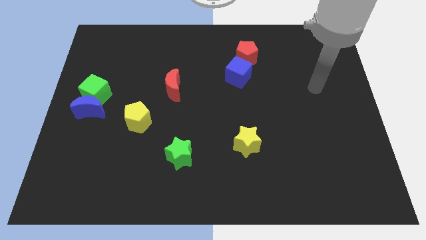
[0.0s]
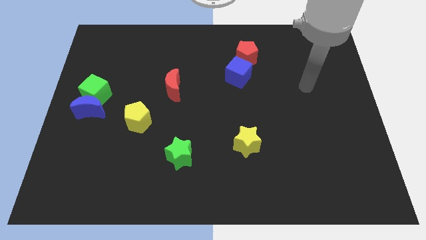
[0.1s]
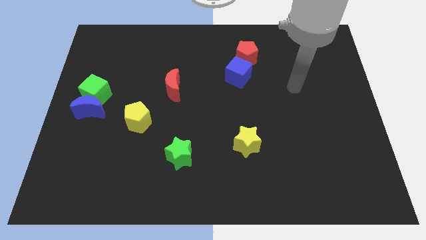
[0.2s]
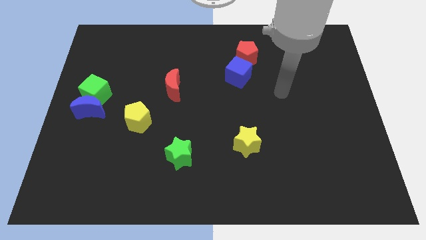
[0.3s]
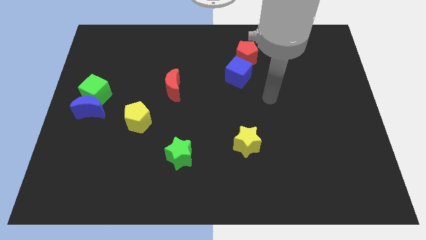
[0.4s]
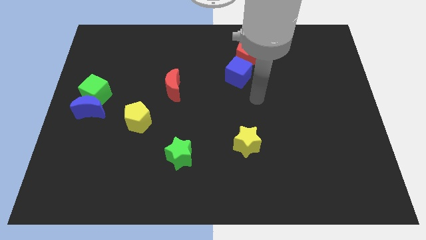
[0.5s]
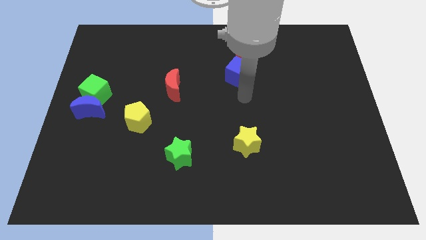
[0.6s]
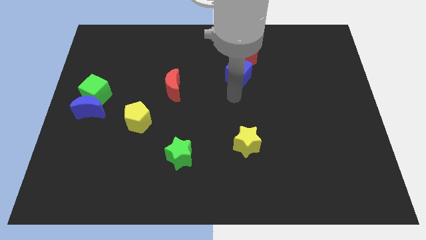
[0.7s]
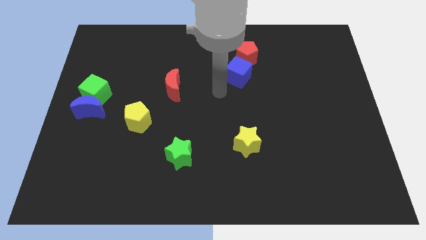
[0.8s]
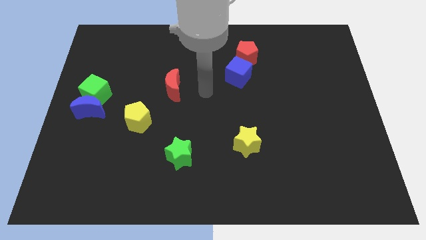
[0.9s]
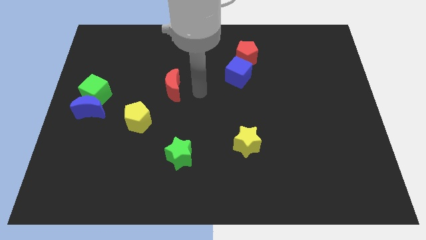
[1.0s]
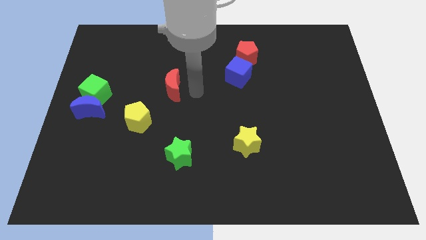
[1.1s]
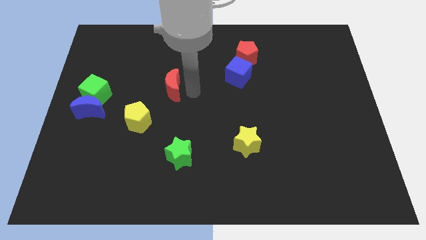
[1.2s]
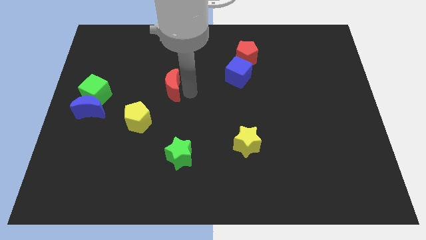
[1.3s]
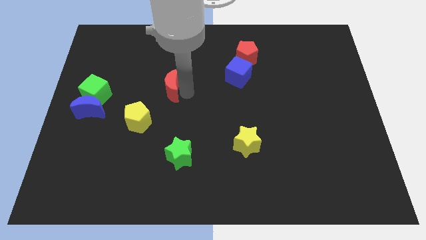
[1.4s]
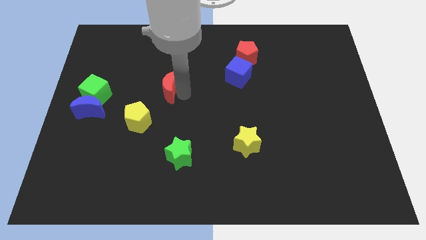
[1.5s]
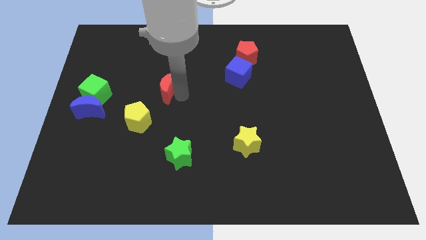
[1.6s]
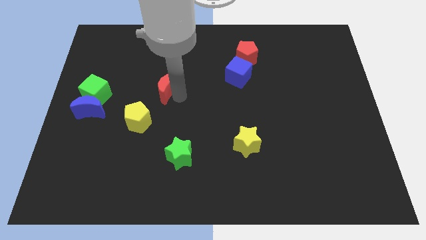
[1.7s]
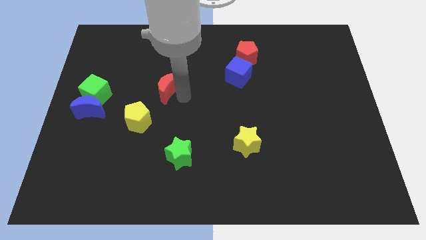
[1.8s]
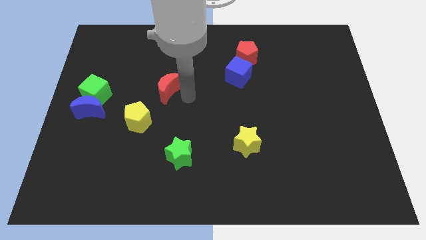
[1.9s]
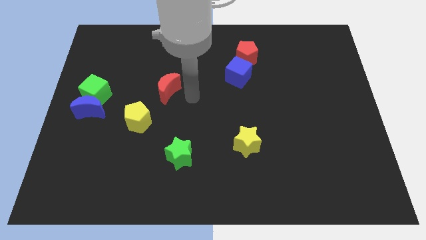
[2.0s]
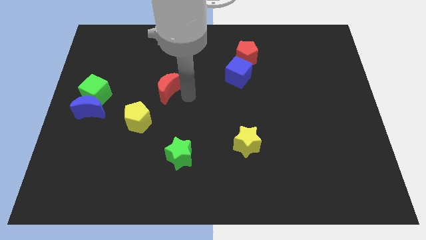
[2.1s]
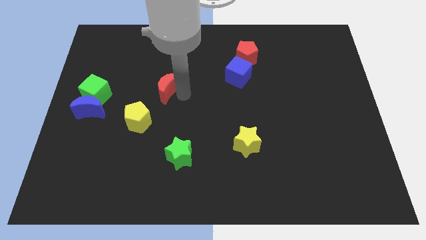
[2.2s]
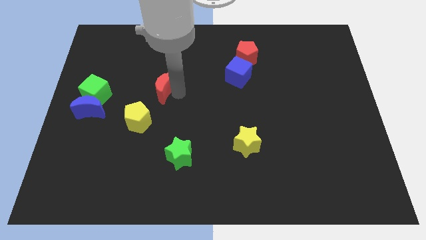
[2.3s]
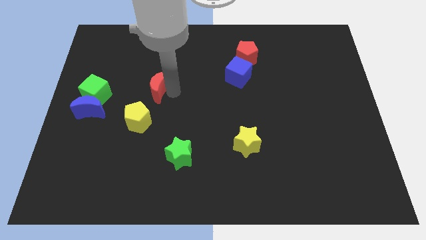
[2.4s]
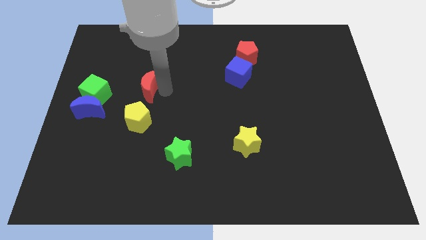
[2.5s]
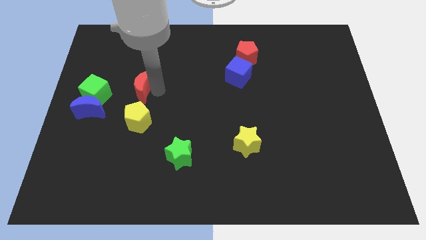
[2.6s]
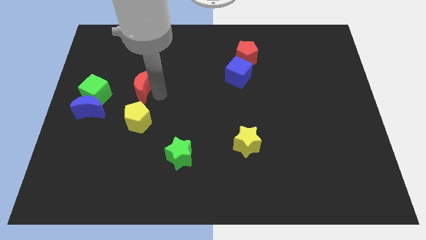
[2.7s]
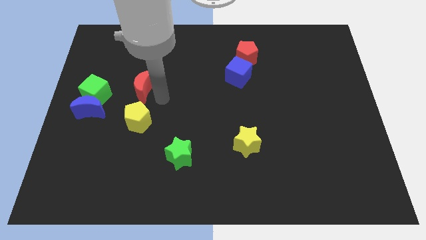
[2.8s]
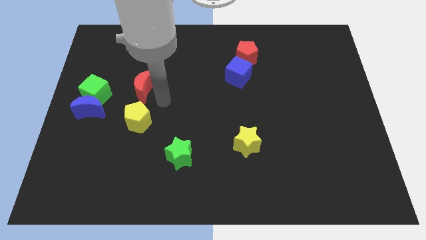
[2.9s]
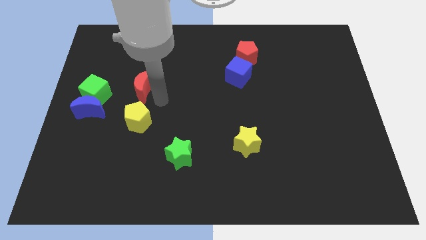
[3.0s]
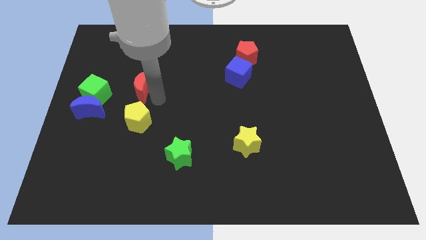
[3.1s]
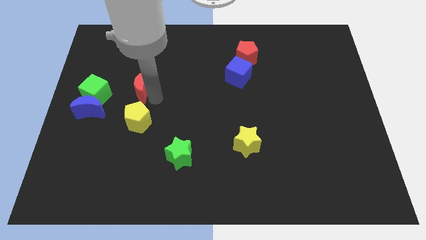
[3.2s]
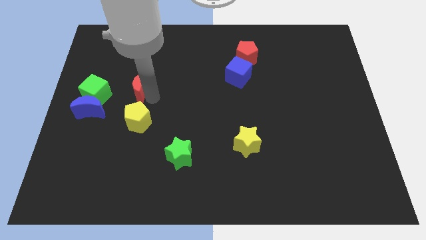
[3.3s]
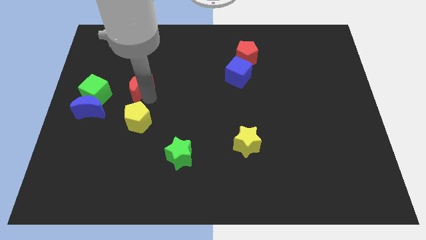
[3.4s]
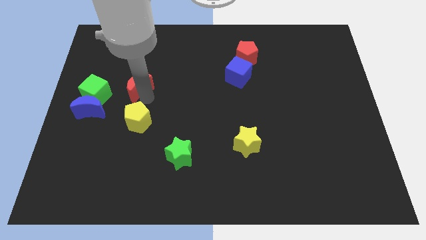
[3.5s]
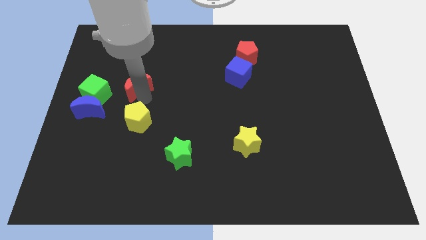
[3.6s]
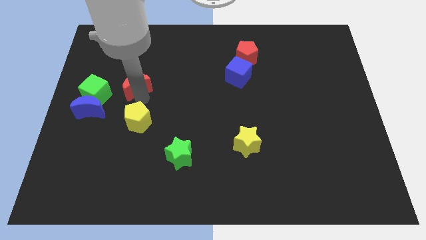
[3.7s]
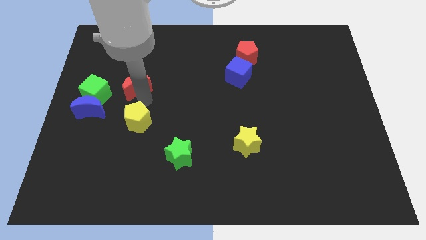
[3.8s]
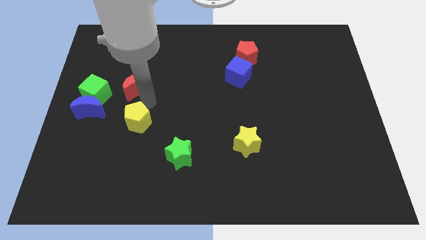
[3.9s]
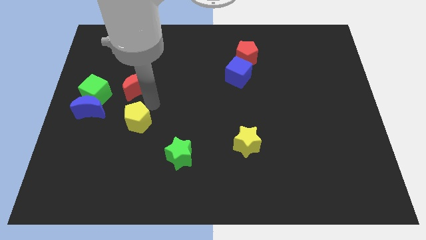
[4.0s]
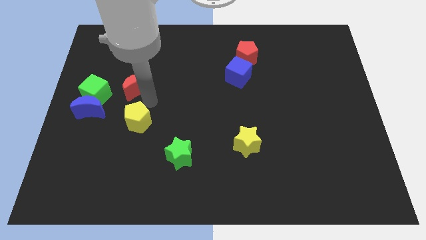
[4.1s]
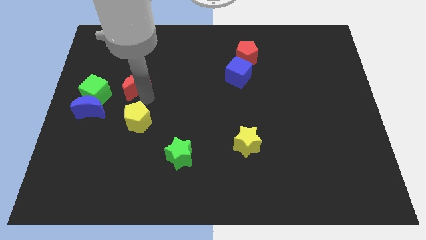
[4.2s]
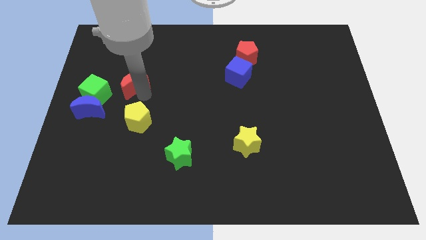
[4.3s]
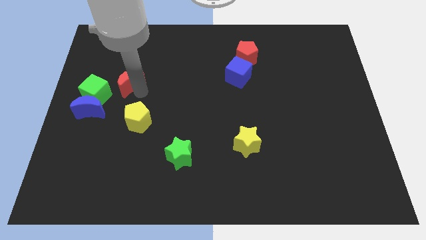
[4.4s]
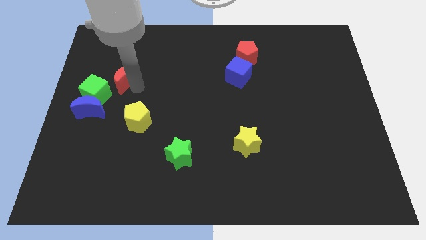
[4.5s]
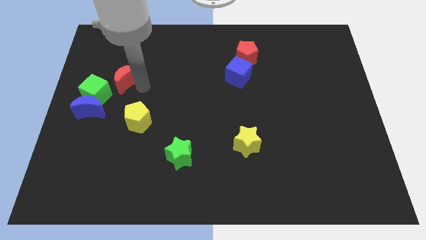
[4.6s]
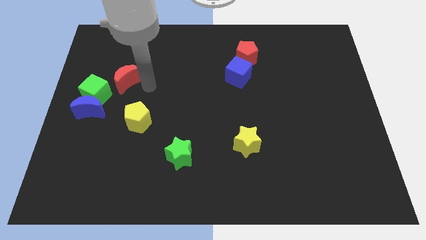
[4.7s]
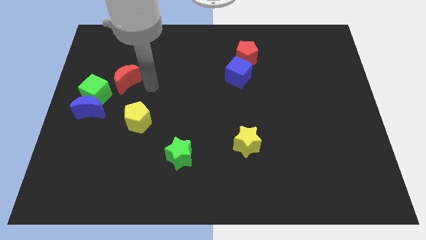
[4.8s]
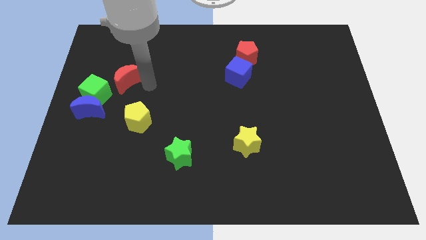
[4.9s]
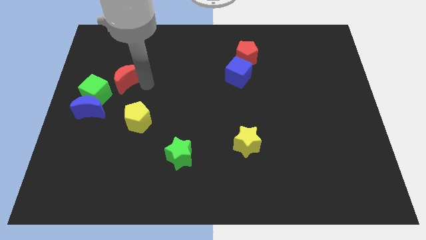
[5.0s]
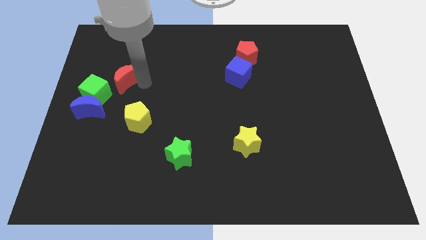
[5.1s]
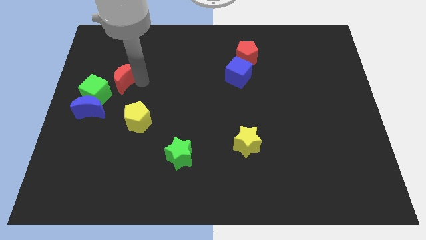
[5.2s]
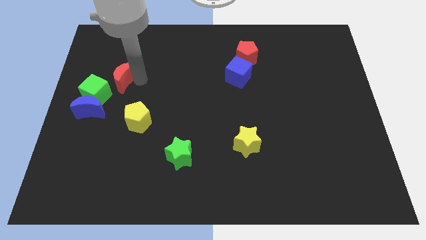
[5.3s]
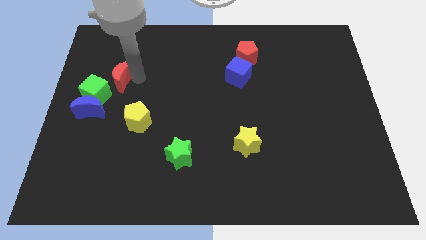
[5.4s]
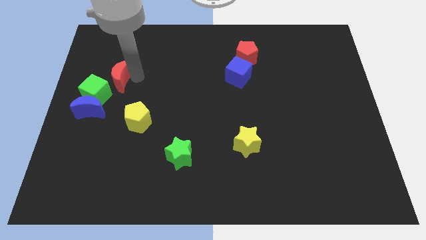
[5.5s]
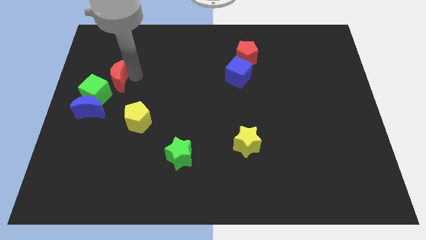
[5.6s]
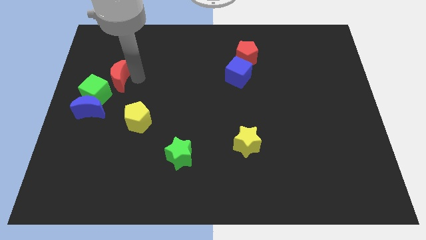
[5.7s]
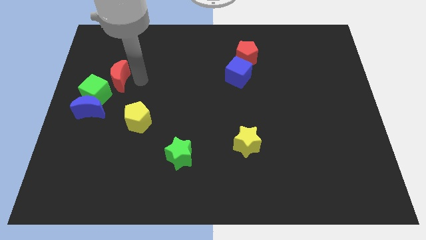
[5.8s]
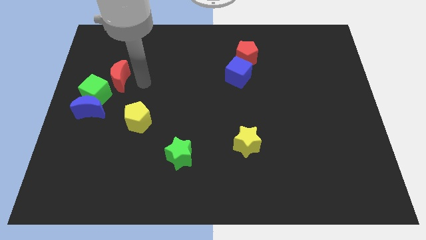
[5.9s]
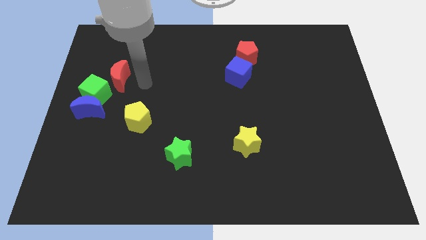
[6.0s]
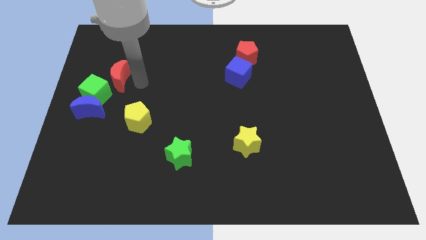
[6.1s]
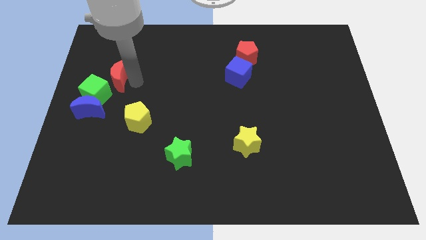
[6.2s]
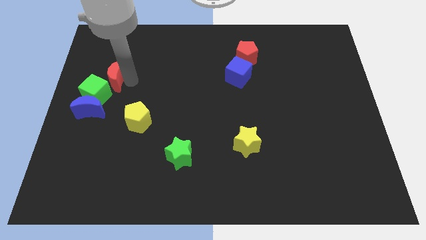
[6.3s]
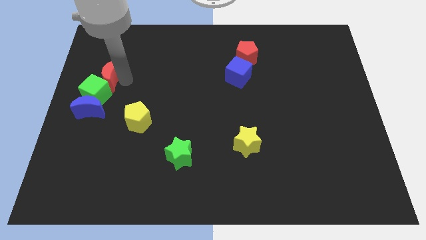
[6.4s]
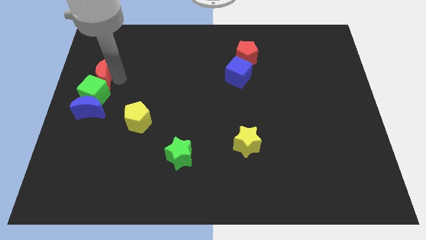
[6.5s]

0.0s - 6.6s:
push the red moon to the center left
